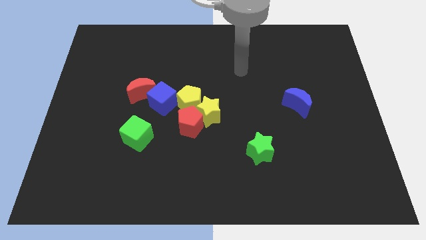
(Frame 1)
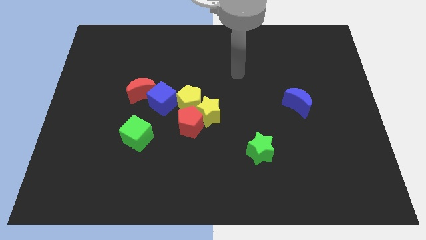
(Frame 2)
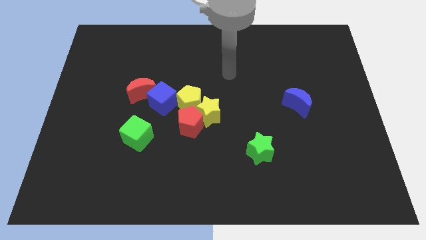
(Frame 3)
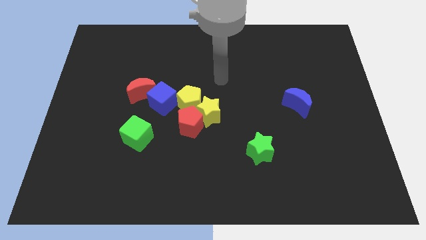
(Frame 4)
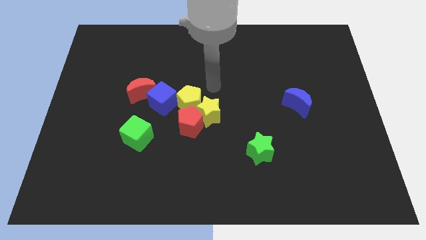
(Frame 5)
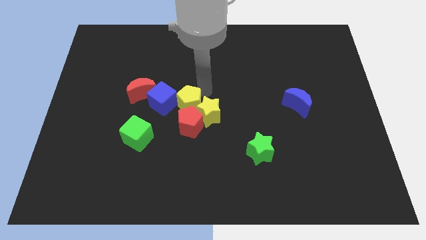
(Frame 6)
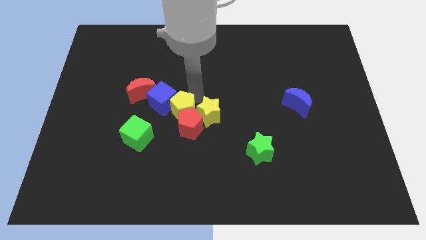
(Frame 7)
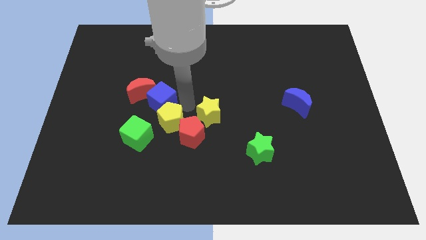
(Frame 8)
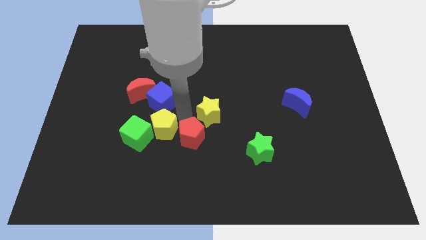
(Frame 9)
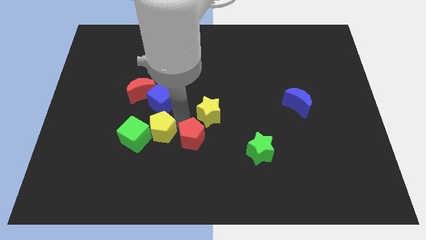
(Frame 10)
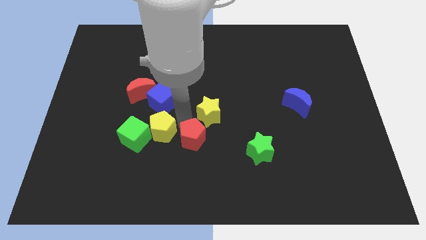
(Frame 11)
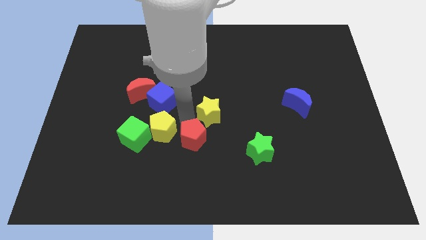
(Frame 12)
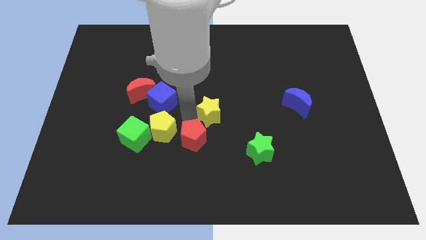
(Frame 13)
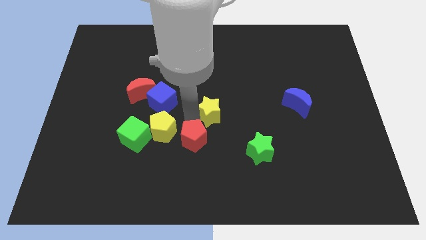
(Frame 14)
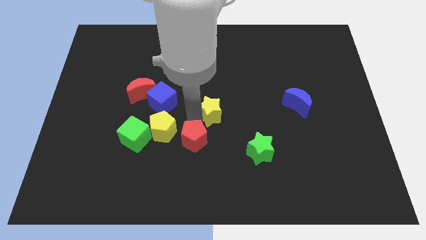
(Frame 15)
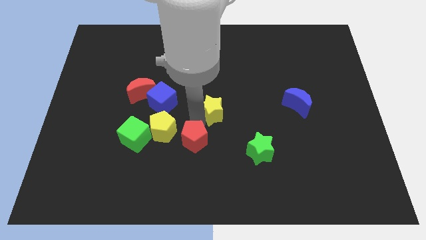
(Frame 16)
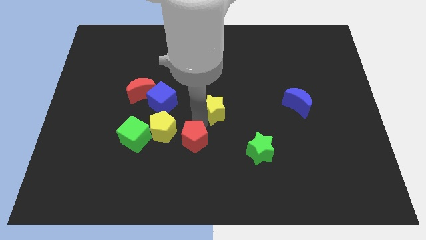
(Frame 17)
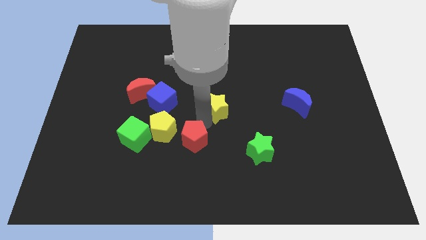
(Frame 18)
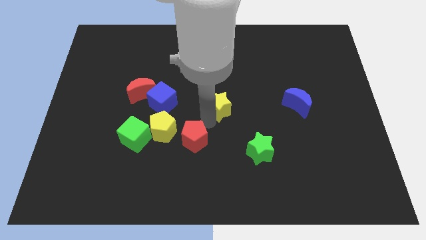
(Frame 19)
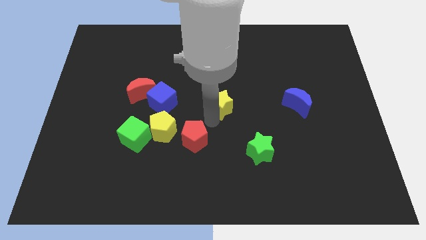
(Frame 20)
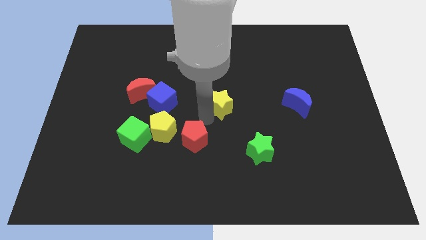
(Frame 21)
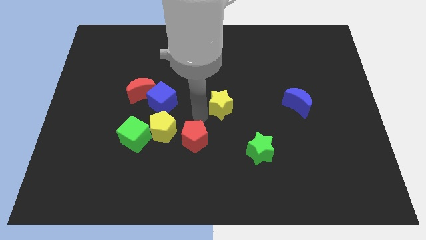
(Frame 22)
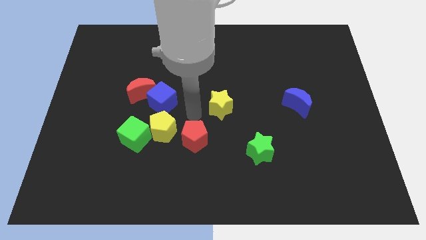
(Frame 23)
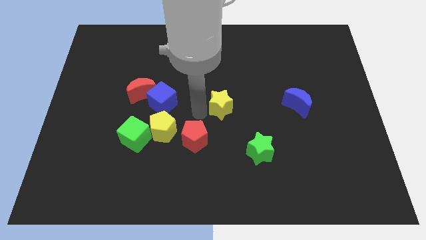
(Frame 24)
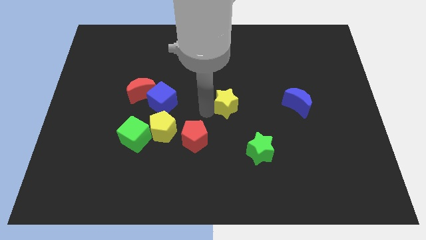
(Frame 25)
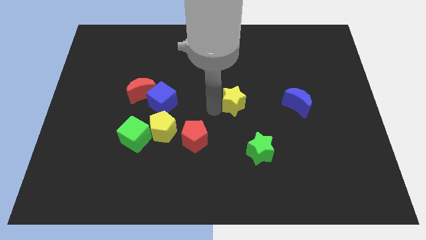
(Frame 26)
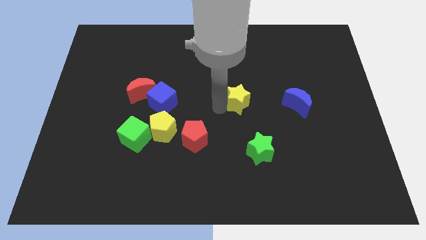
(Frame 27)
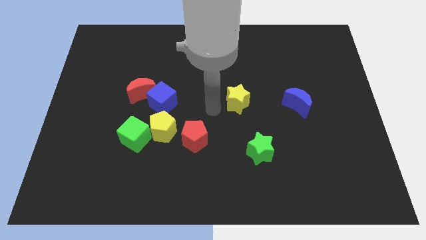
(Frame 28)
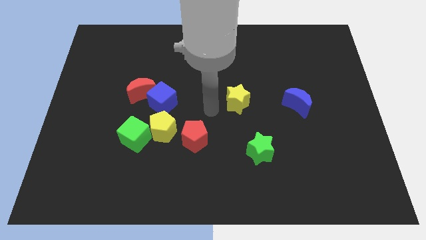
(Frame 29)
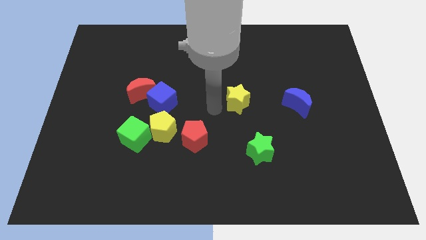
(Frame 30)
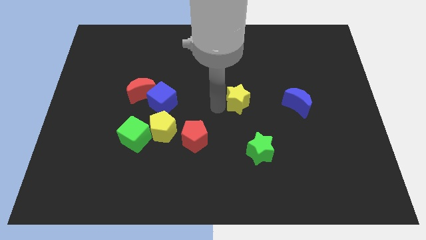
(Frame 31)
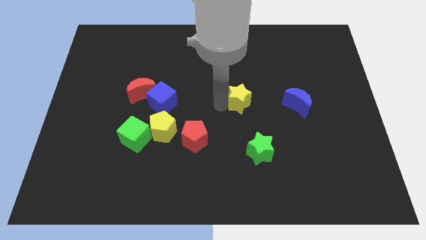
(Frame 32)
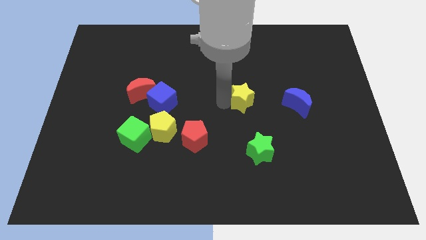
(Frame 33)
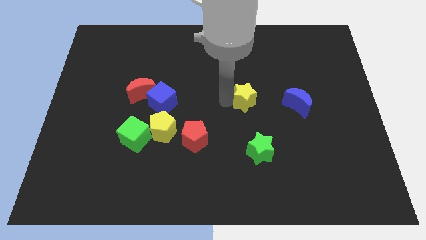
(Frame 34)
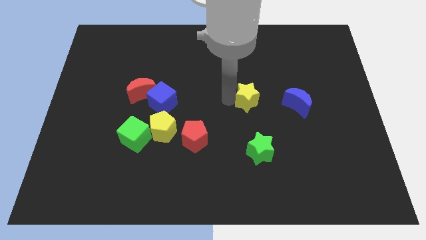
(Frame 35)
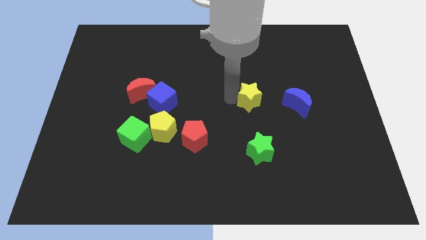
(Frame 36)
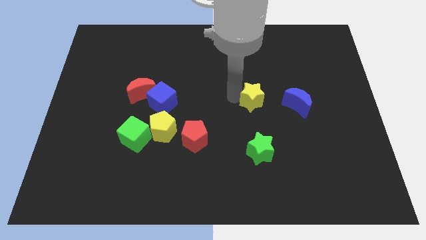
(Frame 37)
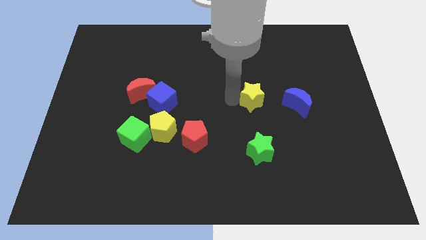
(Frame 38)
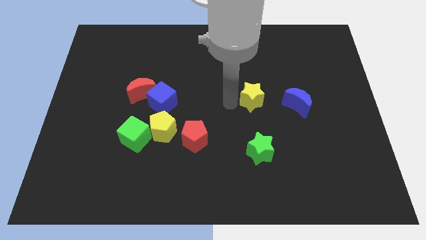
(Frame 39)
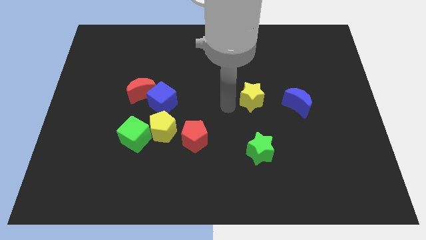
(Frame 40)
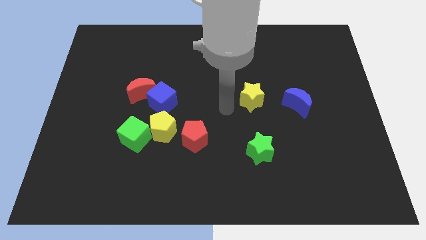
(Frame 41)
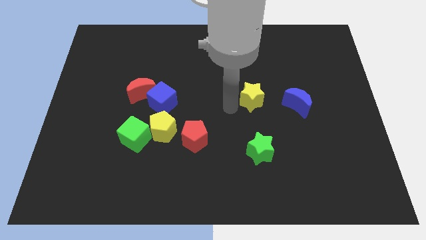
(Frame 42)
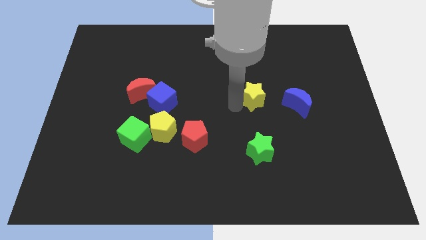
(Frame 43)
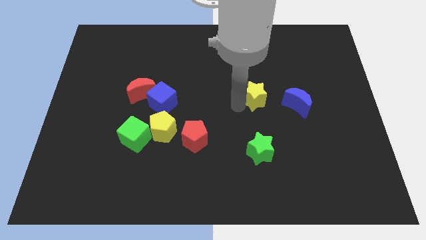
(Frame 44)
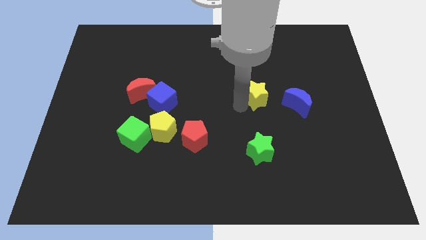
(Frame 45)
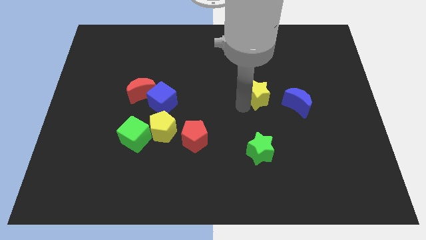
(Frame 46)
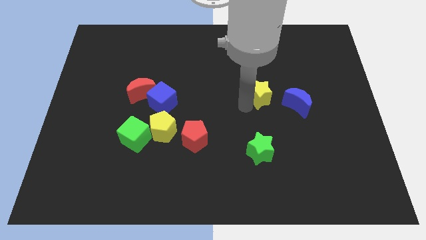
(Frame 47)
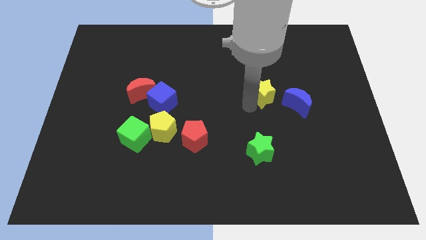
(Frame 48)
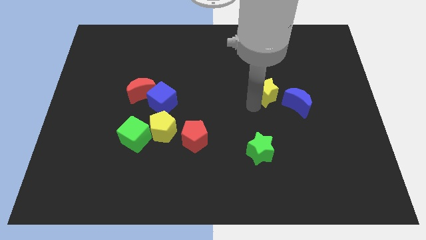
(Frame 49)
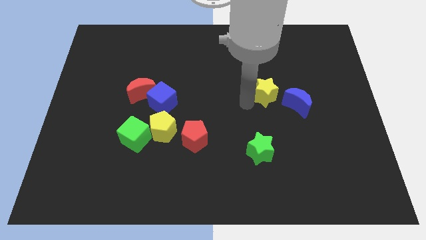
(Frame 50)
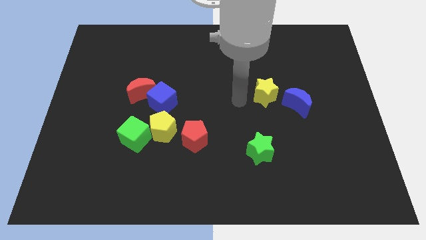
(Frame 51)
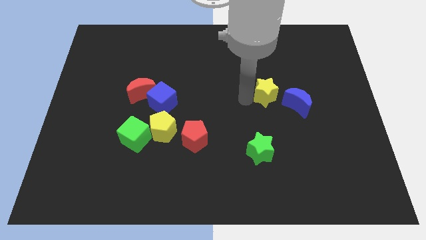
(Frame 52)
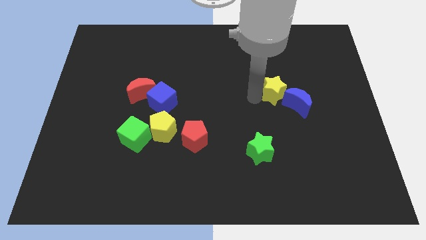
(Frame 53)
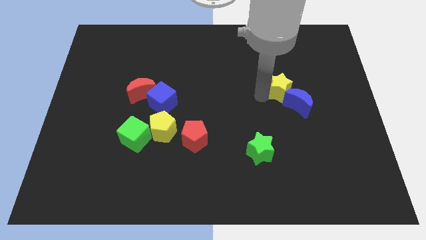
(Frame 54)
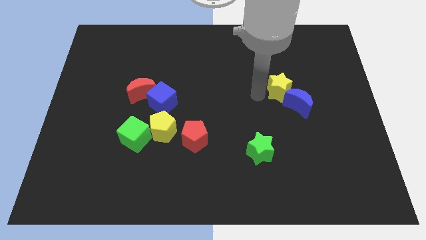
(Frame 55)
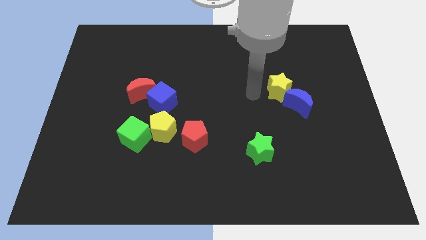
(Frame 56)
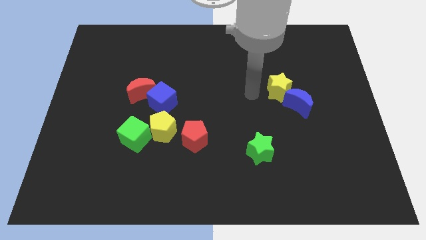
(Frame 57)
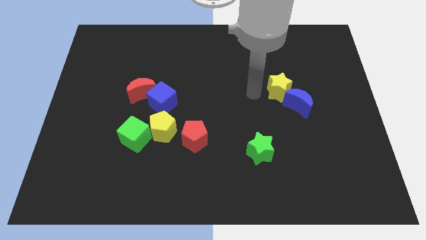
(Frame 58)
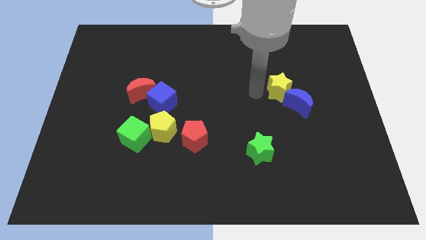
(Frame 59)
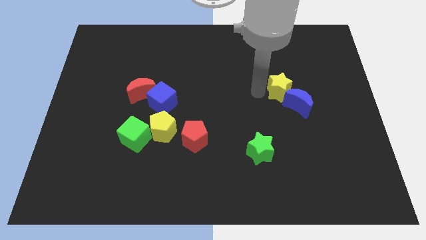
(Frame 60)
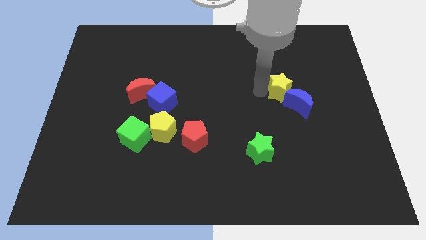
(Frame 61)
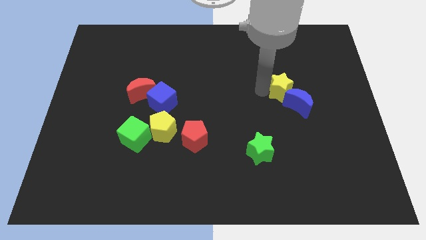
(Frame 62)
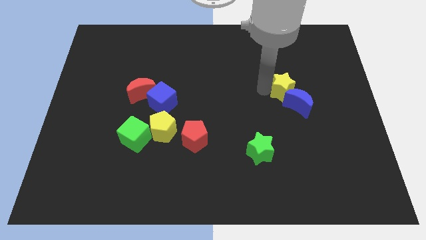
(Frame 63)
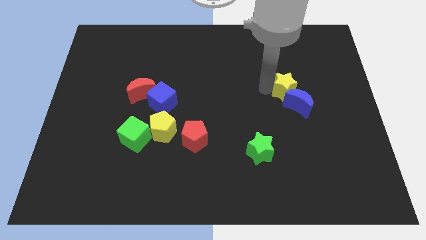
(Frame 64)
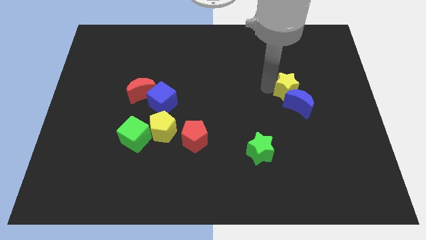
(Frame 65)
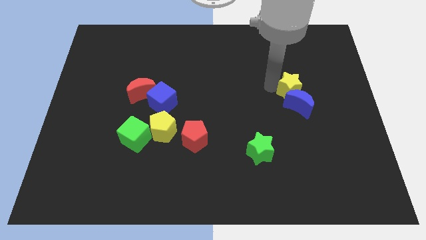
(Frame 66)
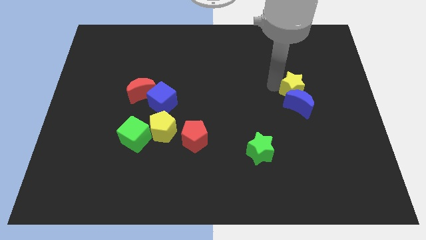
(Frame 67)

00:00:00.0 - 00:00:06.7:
move the yellow star diagonally up and to the right of the blue moon

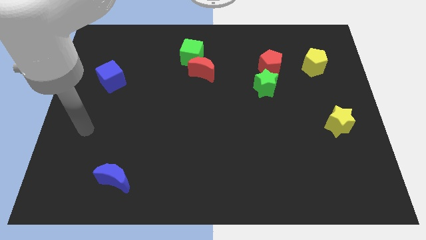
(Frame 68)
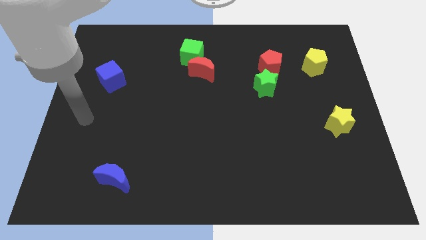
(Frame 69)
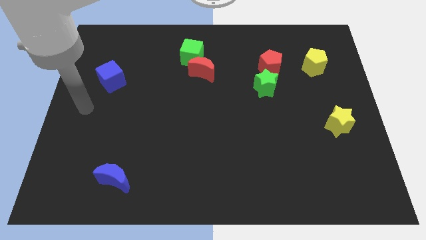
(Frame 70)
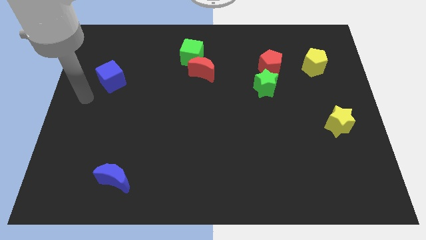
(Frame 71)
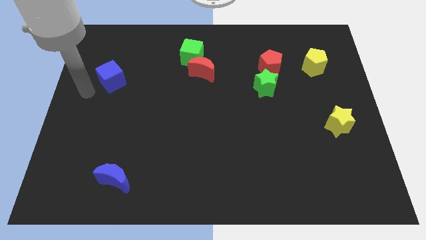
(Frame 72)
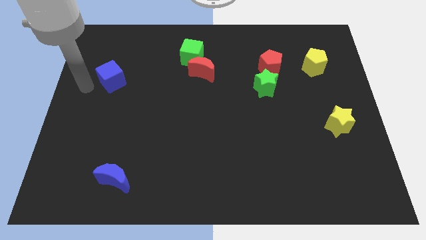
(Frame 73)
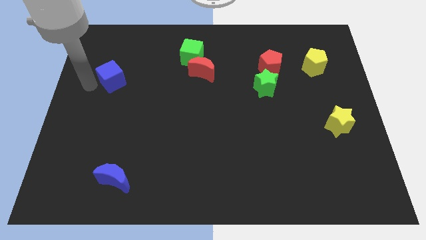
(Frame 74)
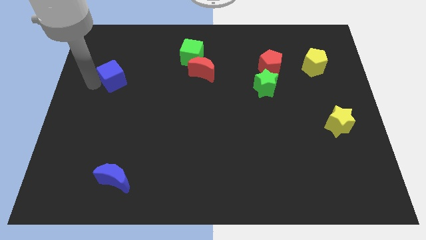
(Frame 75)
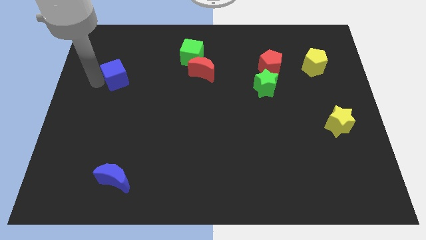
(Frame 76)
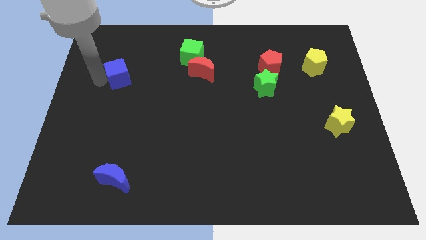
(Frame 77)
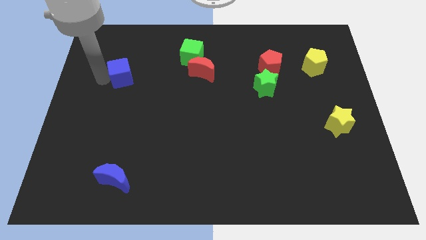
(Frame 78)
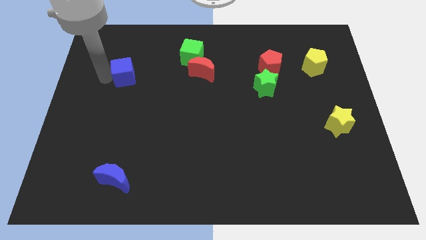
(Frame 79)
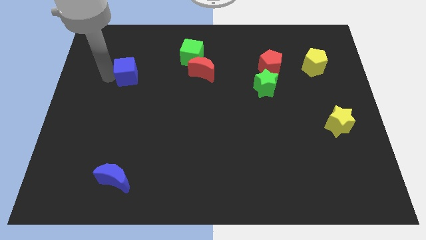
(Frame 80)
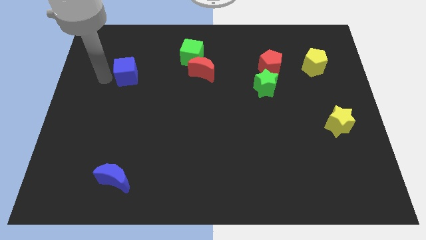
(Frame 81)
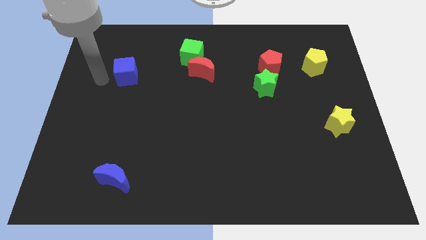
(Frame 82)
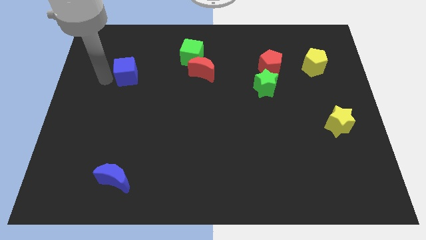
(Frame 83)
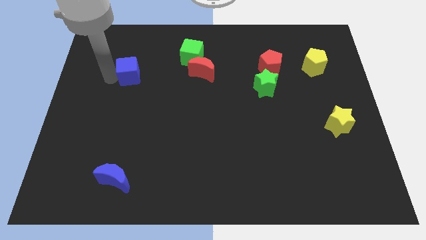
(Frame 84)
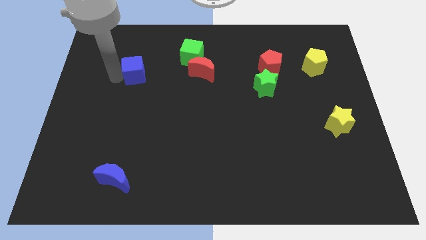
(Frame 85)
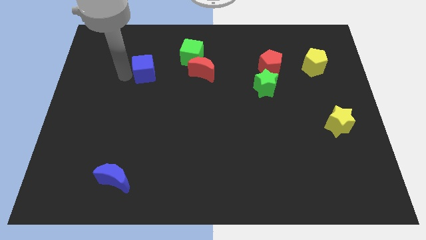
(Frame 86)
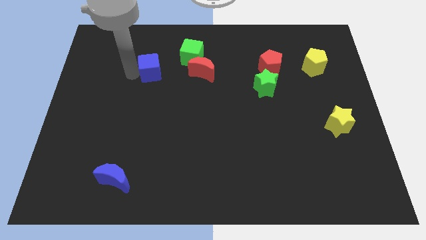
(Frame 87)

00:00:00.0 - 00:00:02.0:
slide the blue cube to the bottom left side of the green cube
